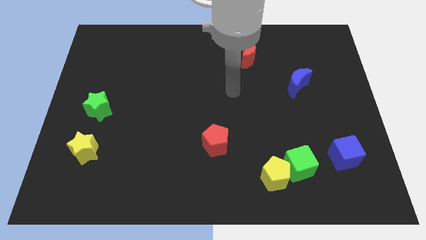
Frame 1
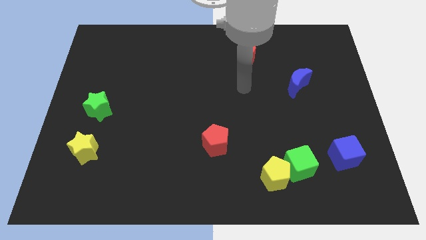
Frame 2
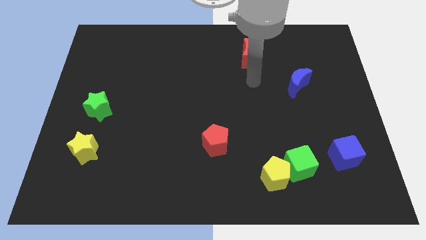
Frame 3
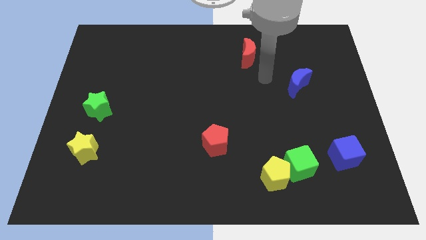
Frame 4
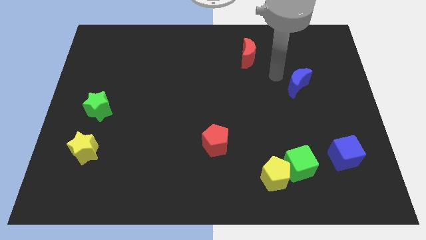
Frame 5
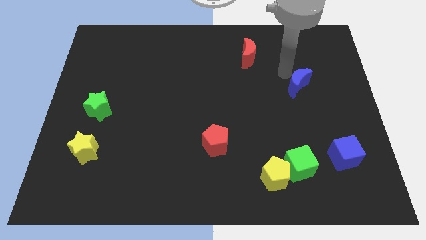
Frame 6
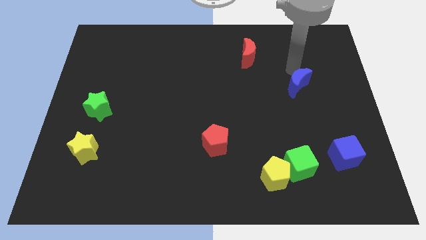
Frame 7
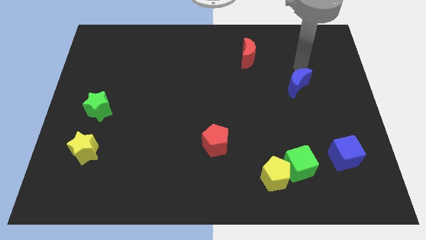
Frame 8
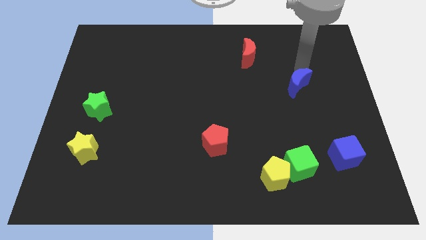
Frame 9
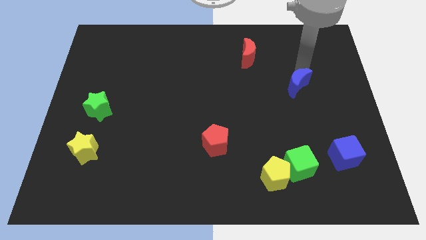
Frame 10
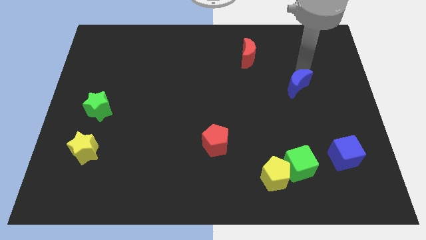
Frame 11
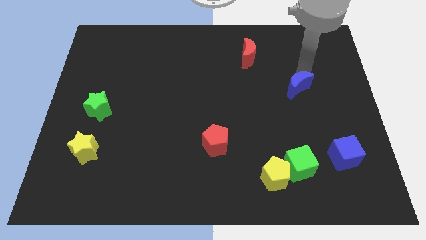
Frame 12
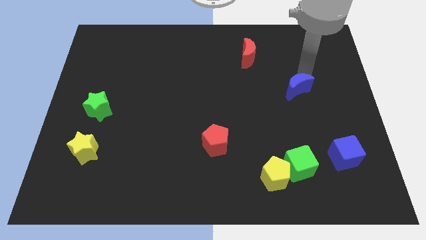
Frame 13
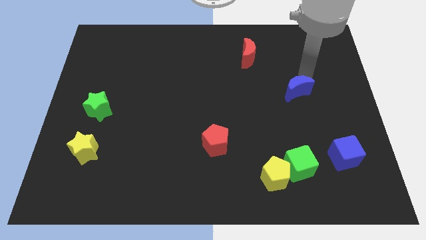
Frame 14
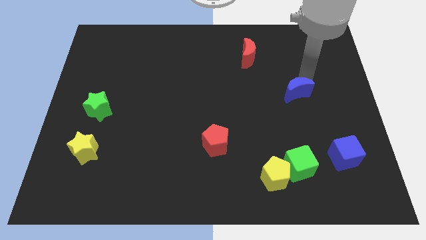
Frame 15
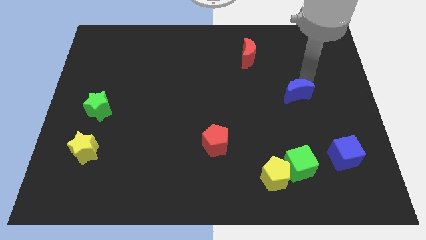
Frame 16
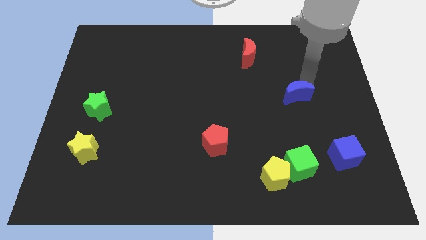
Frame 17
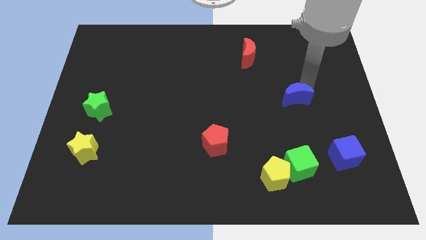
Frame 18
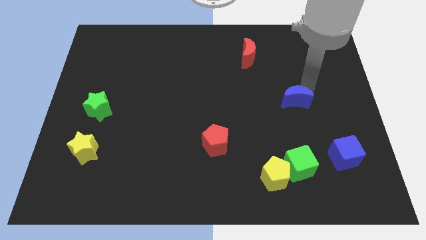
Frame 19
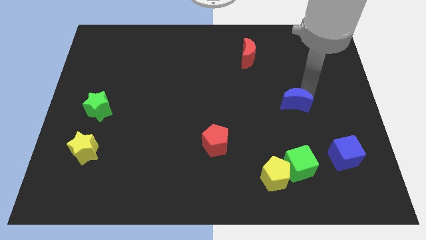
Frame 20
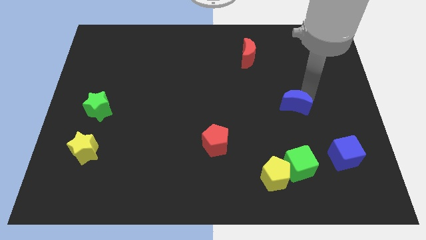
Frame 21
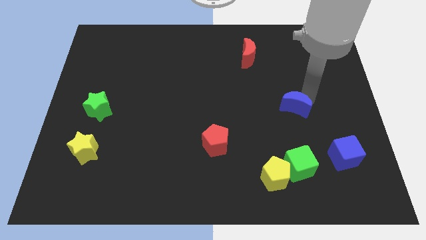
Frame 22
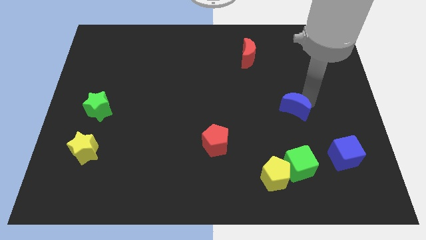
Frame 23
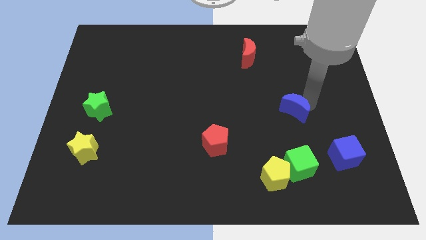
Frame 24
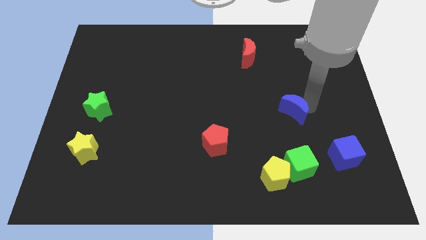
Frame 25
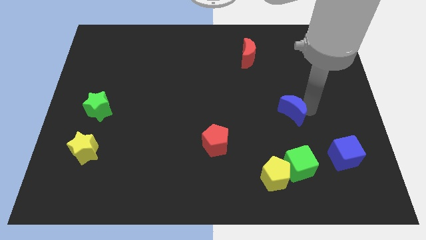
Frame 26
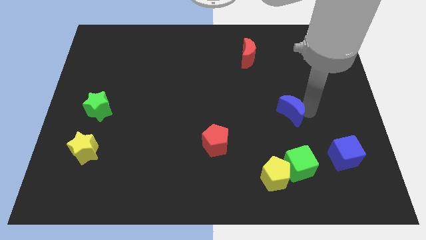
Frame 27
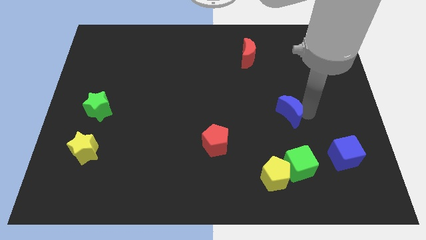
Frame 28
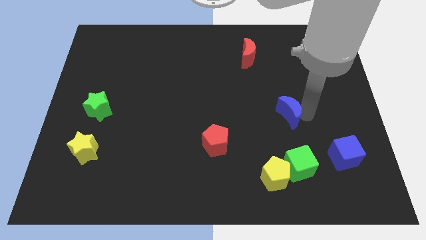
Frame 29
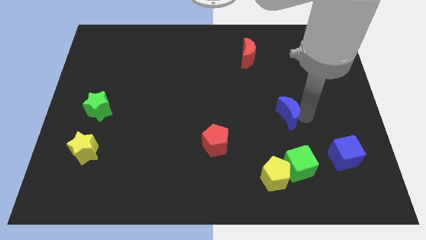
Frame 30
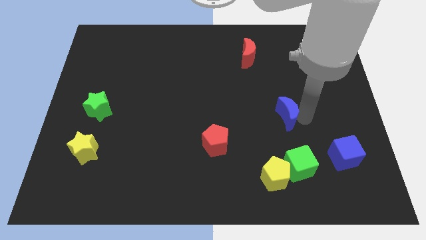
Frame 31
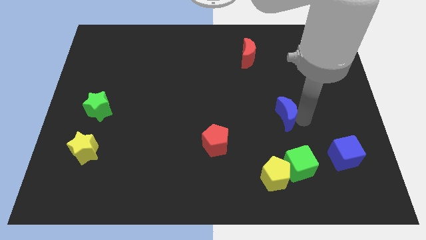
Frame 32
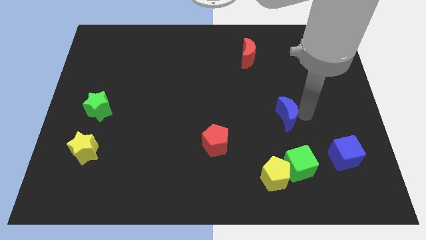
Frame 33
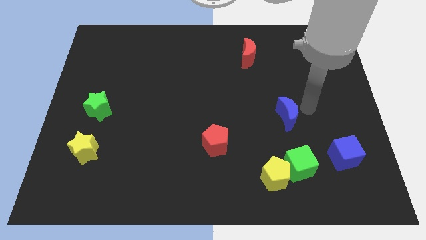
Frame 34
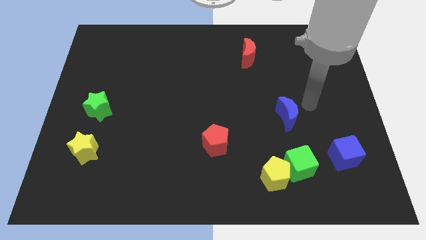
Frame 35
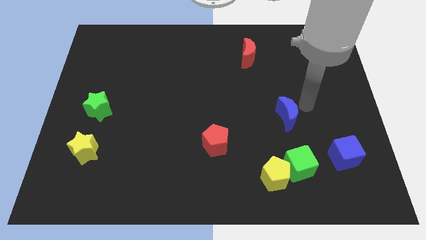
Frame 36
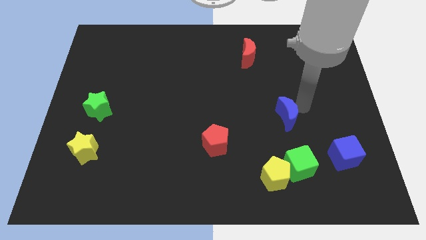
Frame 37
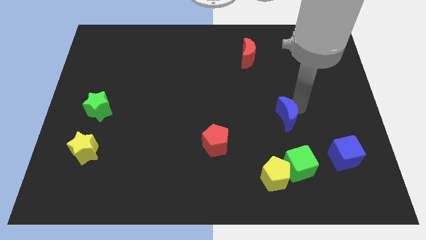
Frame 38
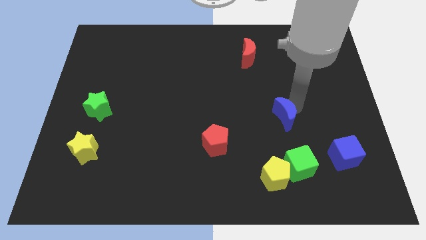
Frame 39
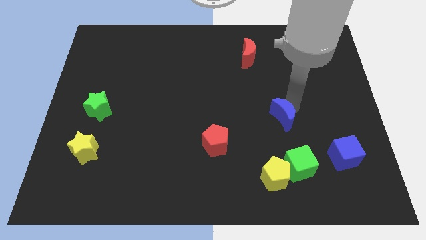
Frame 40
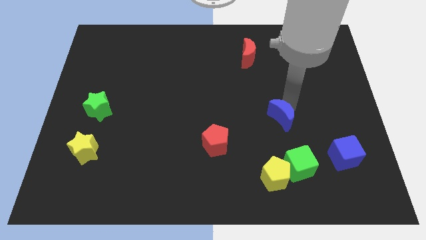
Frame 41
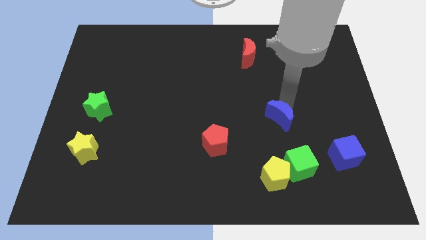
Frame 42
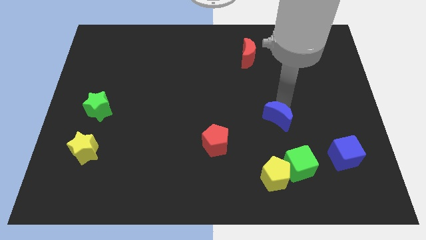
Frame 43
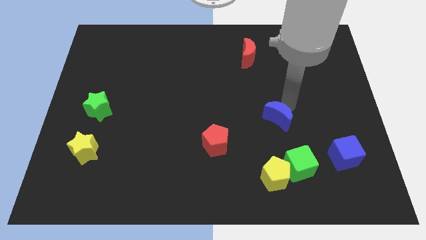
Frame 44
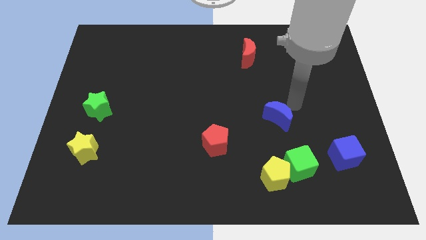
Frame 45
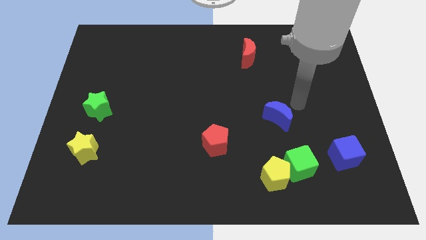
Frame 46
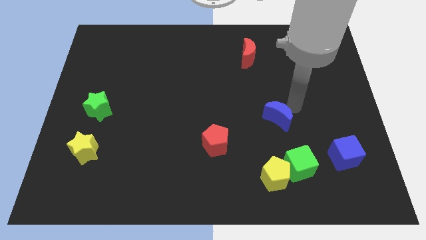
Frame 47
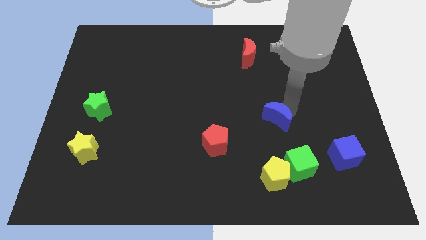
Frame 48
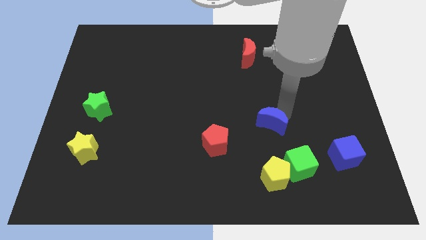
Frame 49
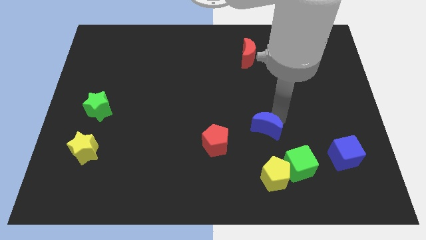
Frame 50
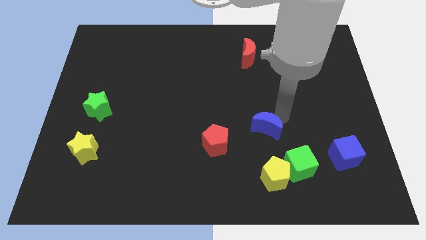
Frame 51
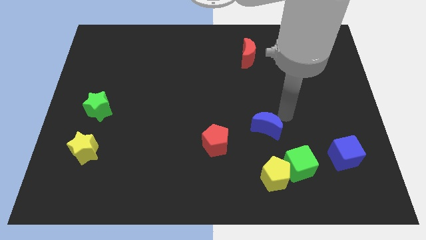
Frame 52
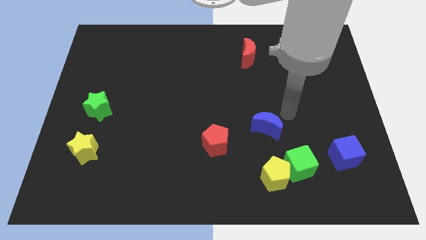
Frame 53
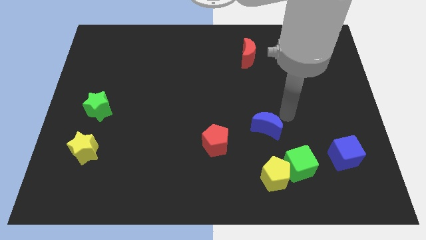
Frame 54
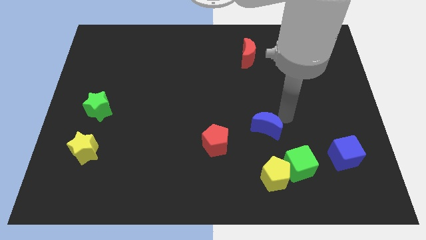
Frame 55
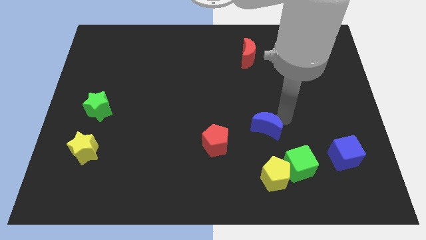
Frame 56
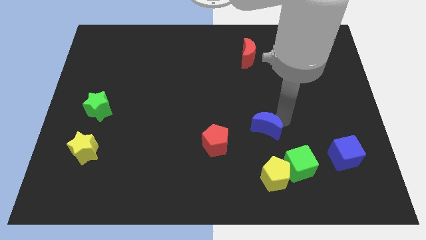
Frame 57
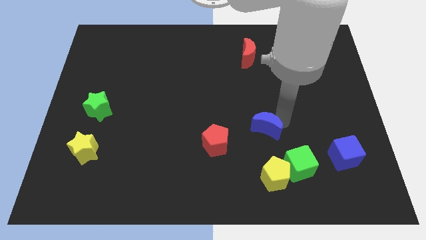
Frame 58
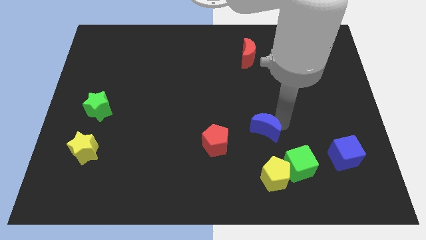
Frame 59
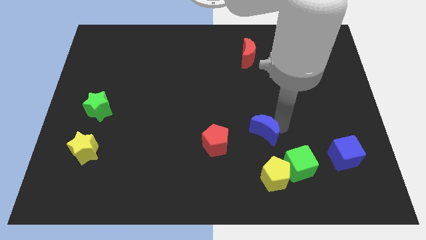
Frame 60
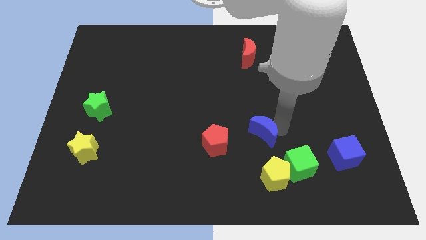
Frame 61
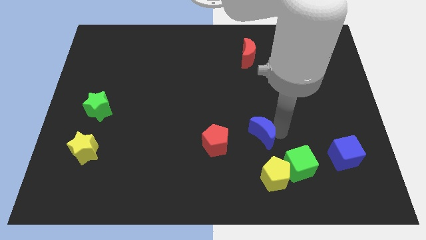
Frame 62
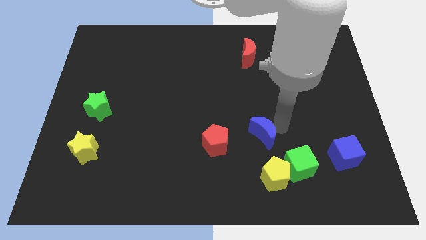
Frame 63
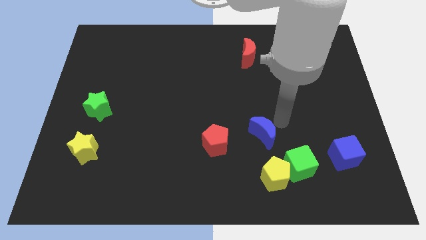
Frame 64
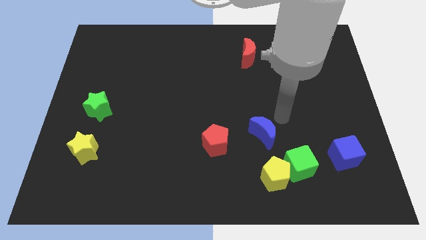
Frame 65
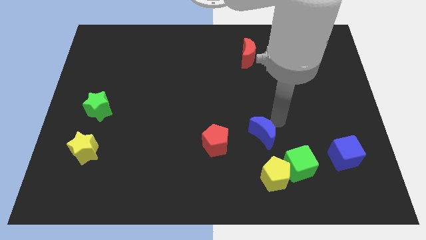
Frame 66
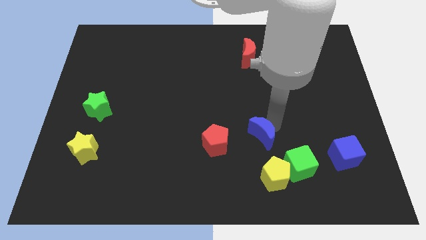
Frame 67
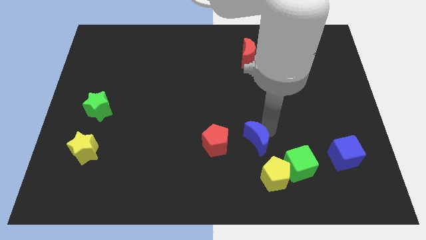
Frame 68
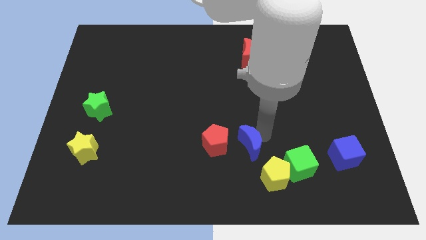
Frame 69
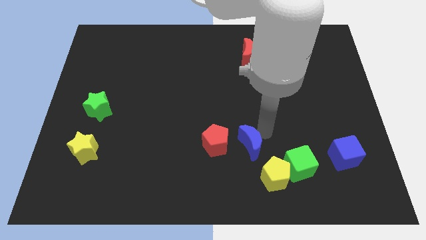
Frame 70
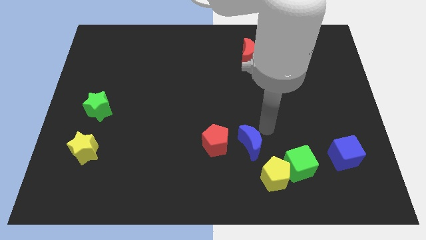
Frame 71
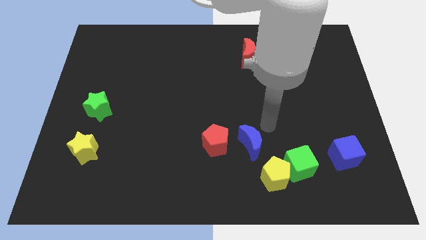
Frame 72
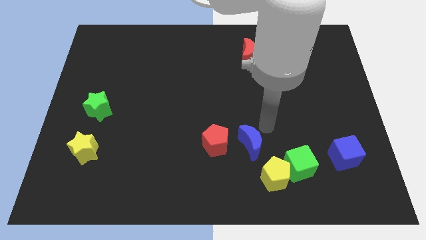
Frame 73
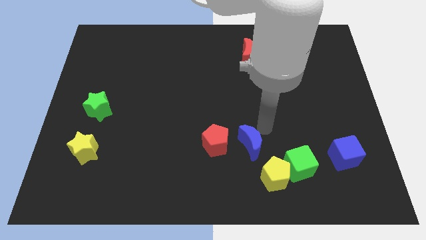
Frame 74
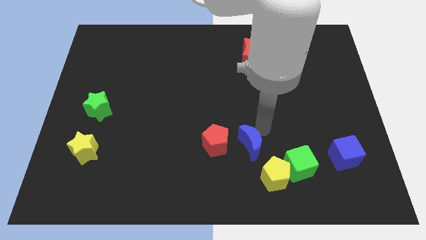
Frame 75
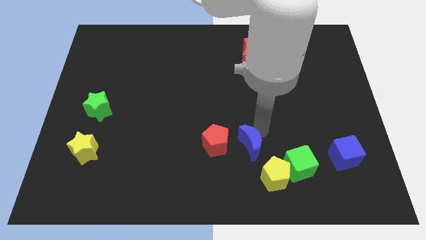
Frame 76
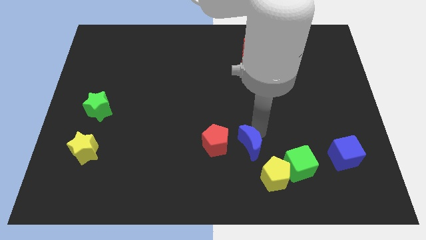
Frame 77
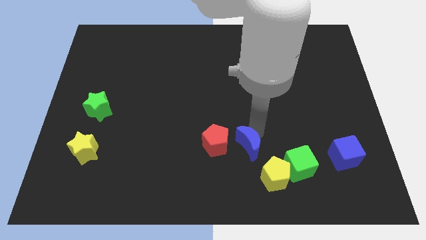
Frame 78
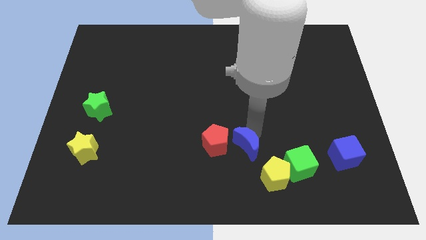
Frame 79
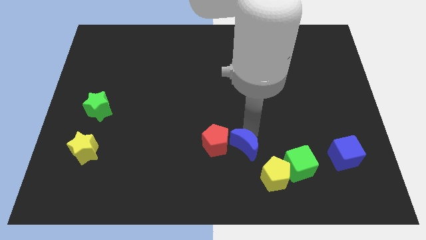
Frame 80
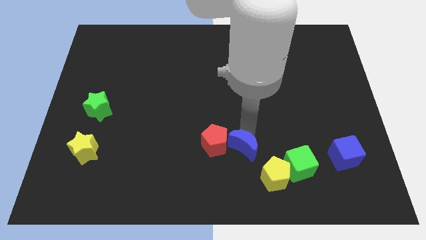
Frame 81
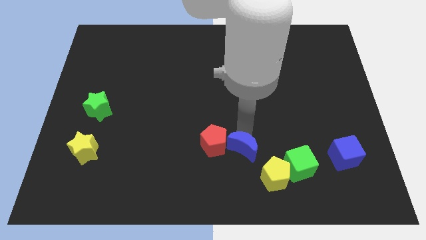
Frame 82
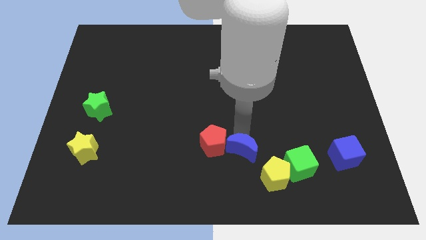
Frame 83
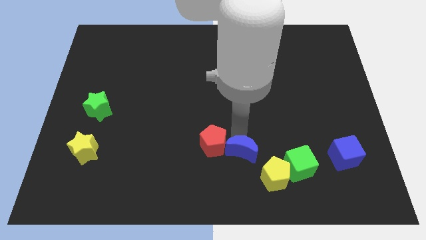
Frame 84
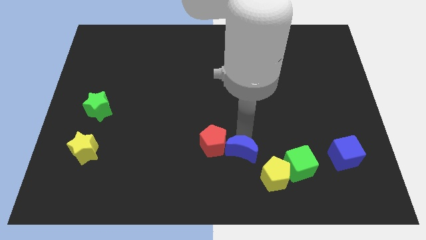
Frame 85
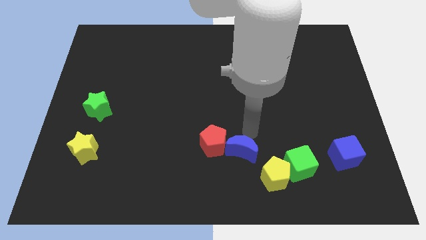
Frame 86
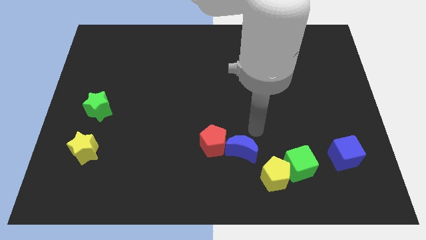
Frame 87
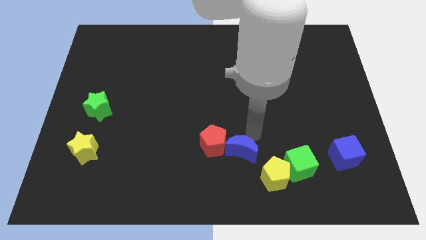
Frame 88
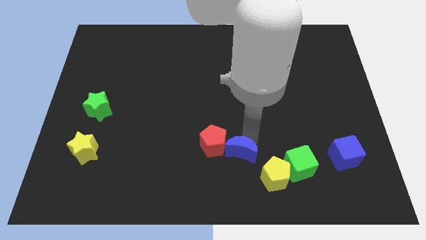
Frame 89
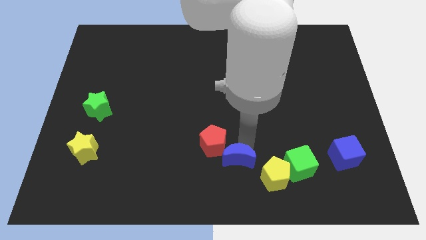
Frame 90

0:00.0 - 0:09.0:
move the blue moon to the left side of the yellow pentagon
